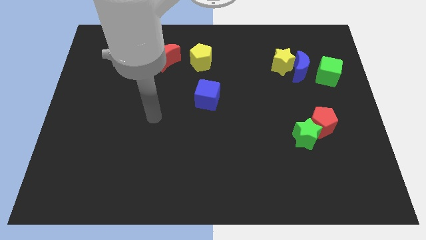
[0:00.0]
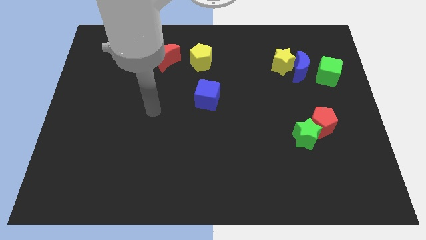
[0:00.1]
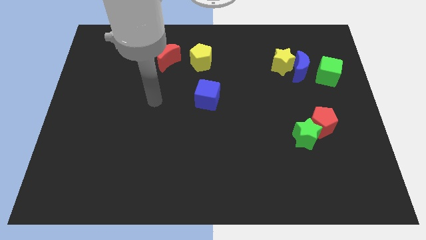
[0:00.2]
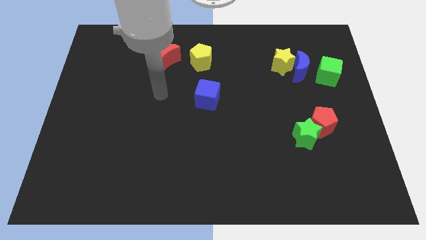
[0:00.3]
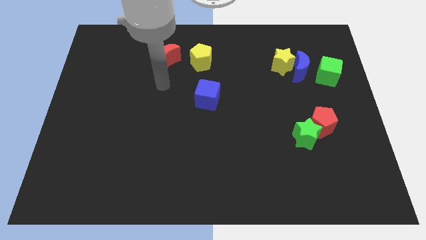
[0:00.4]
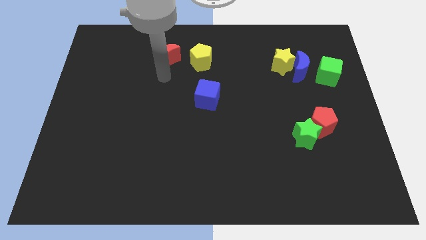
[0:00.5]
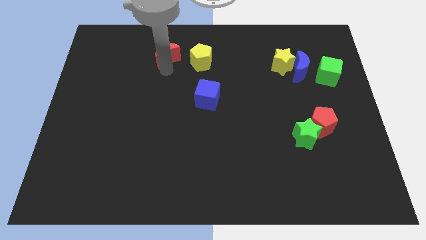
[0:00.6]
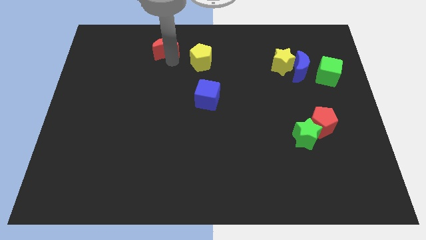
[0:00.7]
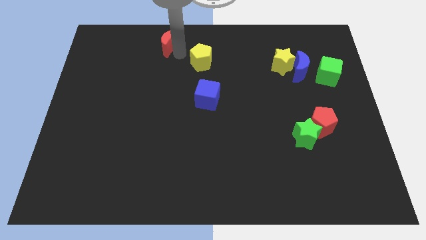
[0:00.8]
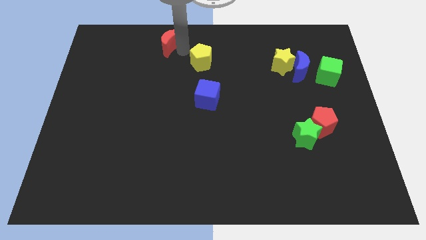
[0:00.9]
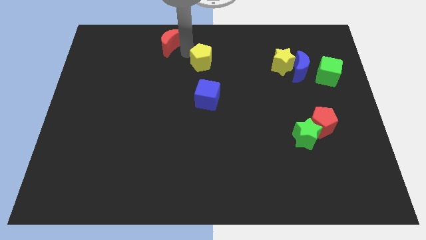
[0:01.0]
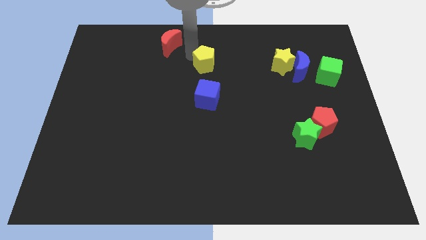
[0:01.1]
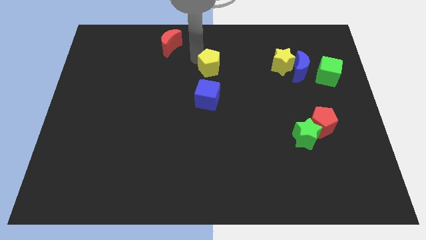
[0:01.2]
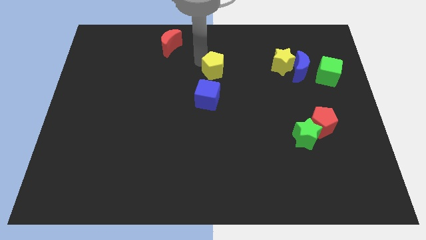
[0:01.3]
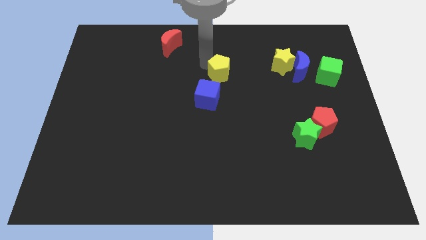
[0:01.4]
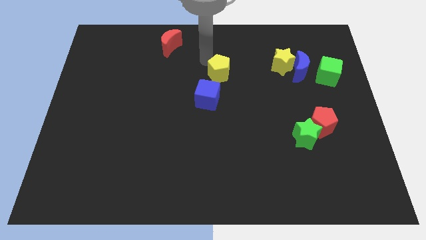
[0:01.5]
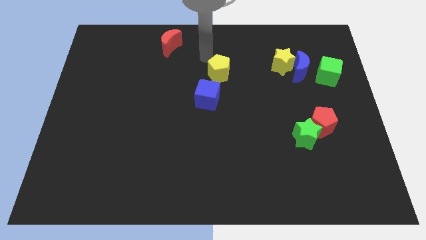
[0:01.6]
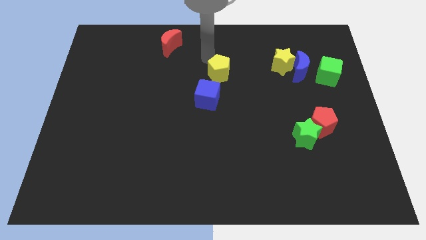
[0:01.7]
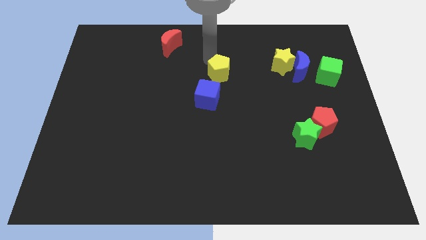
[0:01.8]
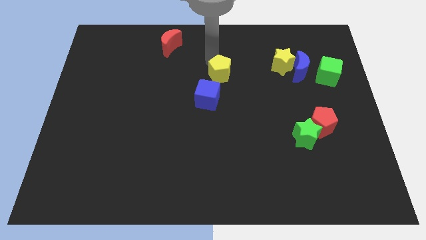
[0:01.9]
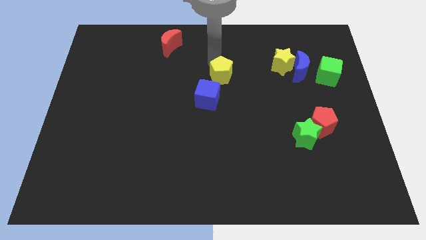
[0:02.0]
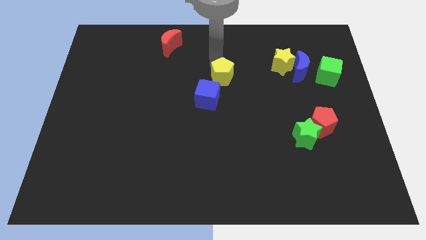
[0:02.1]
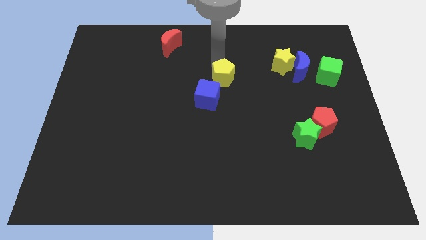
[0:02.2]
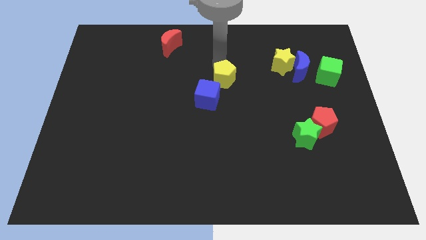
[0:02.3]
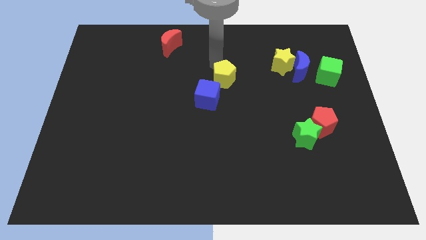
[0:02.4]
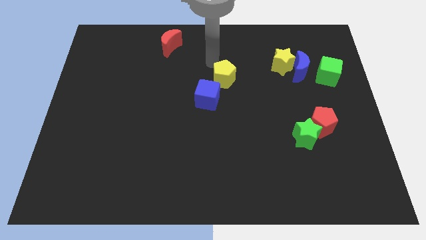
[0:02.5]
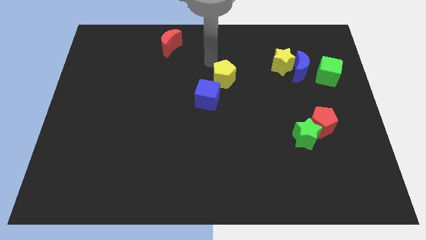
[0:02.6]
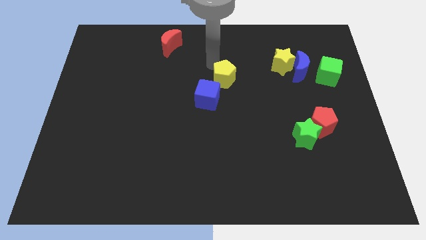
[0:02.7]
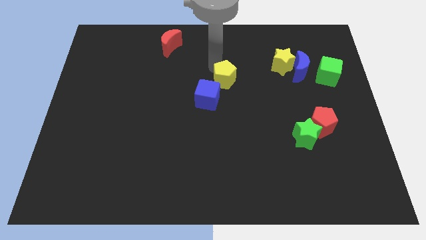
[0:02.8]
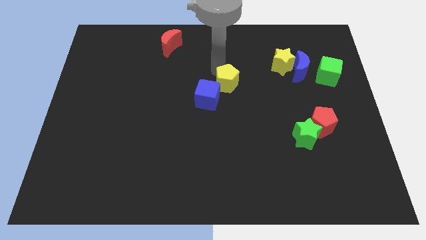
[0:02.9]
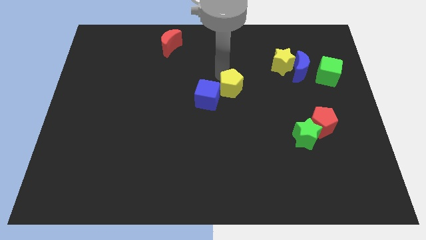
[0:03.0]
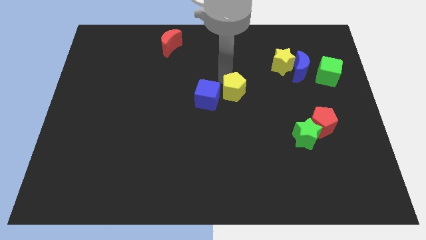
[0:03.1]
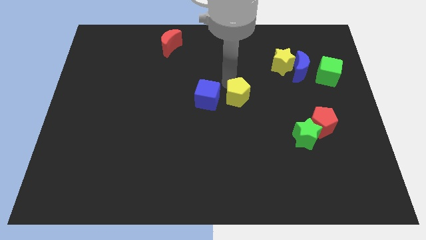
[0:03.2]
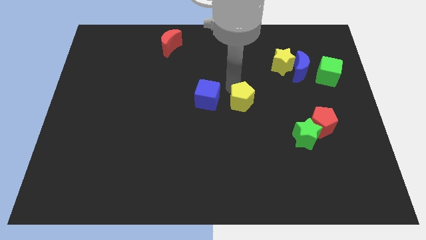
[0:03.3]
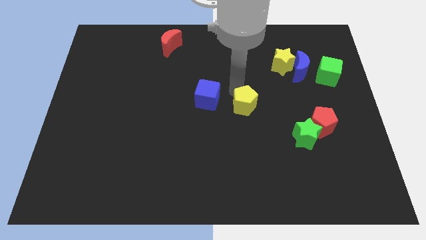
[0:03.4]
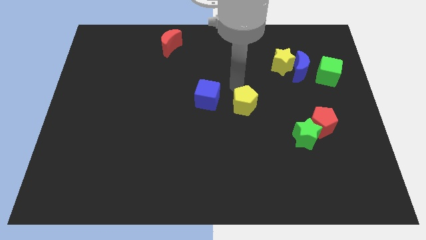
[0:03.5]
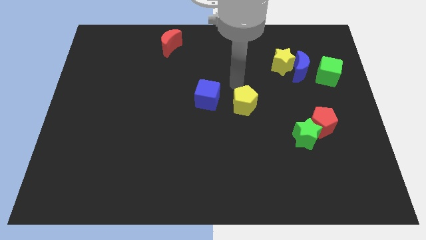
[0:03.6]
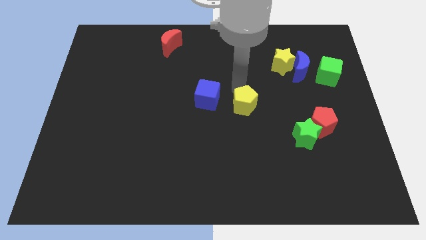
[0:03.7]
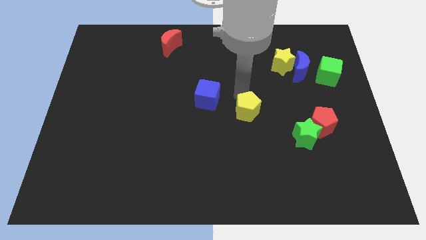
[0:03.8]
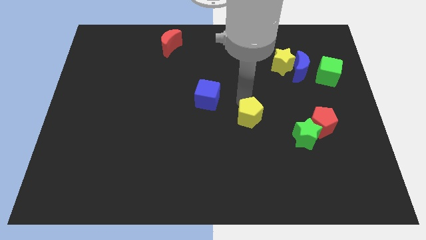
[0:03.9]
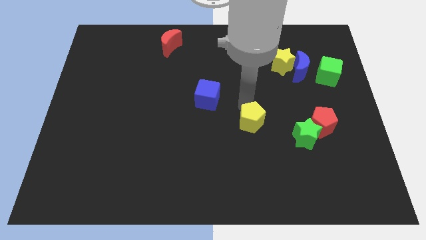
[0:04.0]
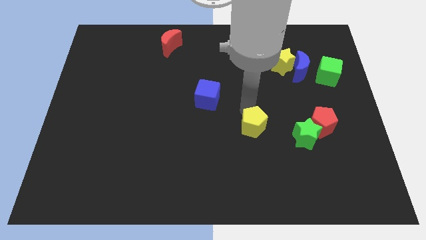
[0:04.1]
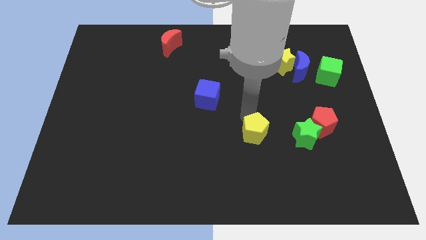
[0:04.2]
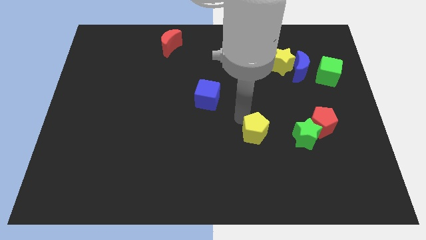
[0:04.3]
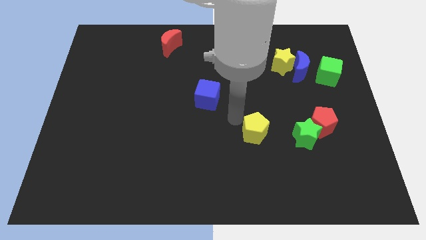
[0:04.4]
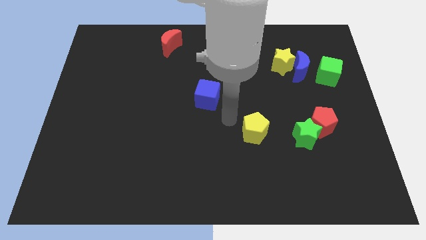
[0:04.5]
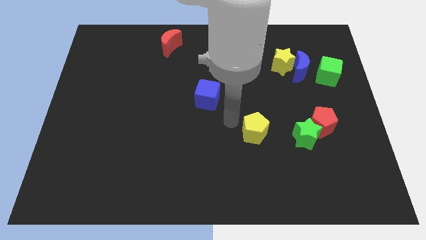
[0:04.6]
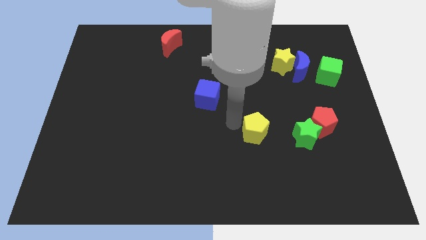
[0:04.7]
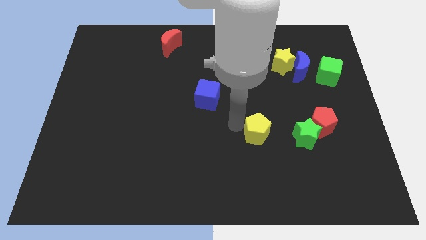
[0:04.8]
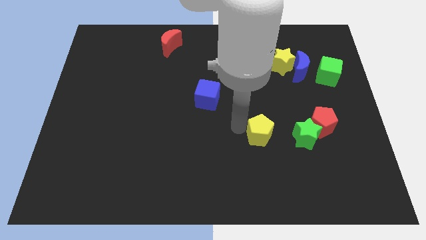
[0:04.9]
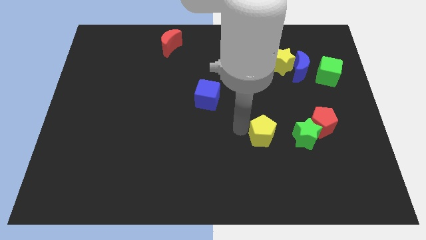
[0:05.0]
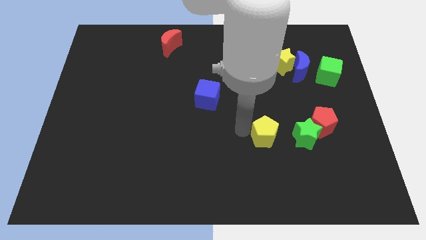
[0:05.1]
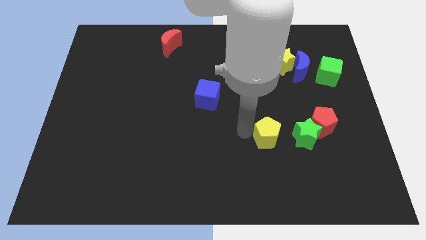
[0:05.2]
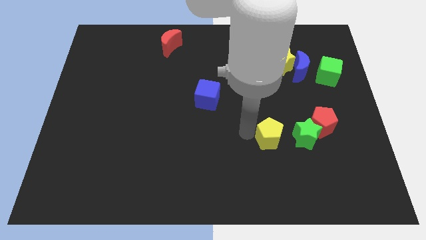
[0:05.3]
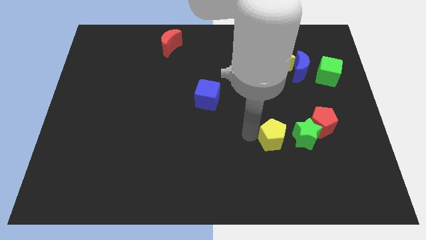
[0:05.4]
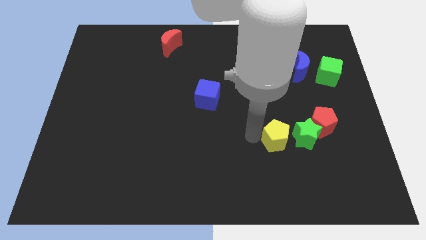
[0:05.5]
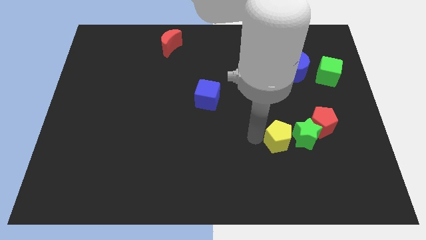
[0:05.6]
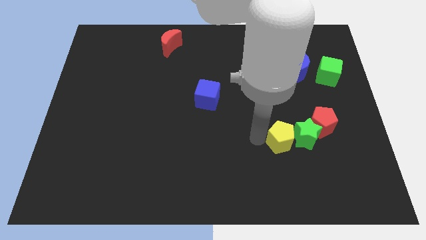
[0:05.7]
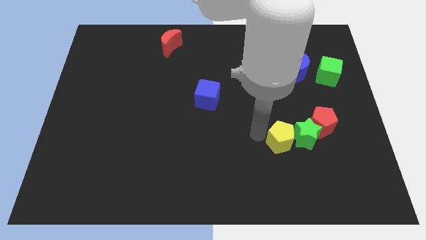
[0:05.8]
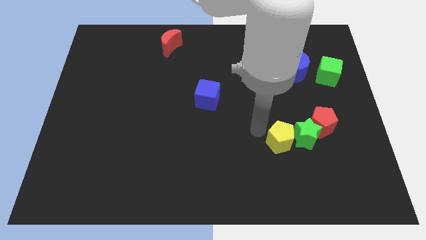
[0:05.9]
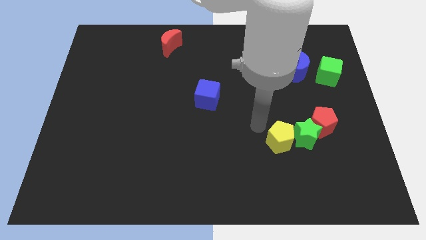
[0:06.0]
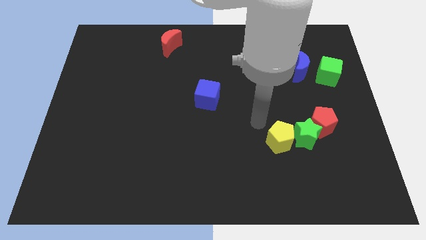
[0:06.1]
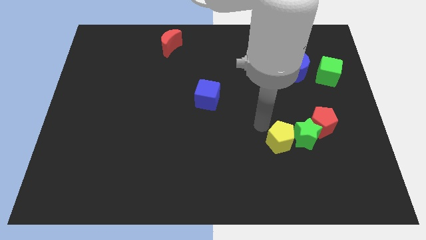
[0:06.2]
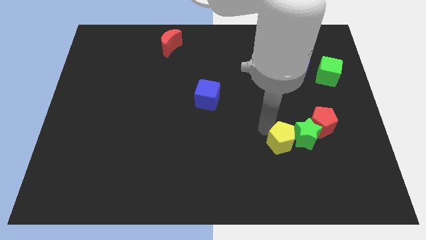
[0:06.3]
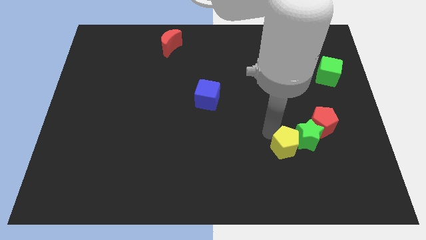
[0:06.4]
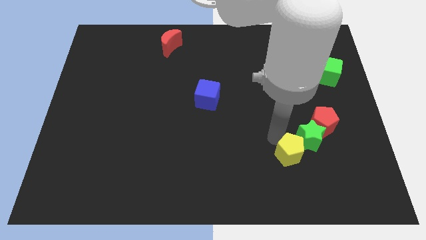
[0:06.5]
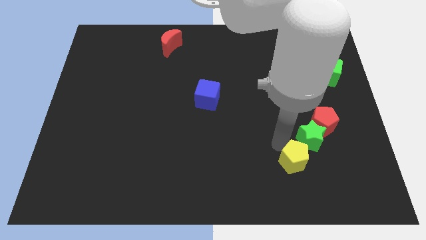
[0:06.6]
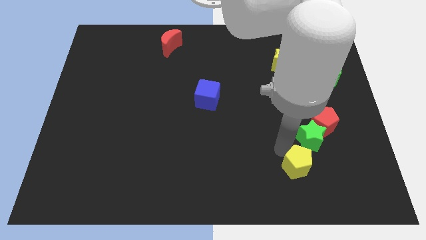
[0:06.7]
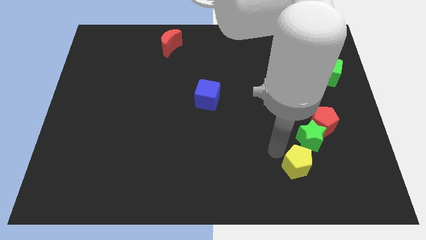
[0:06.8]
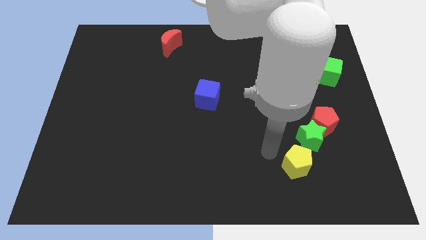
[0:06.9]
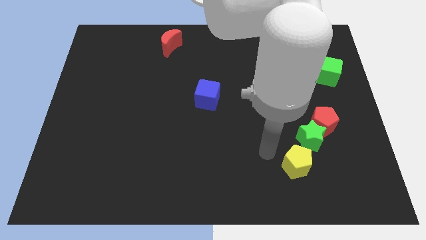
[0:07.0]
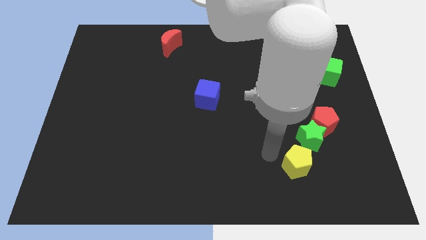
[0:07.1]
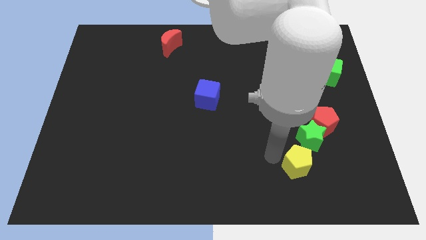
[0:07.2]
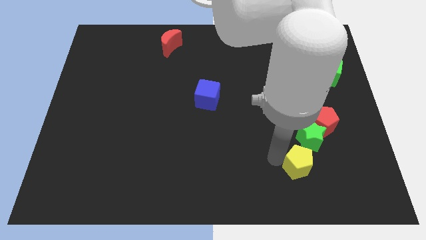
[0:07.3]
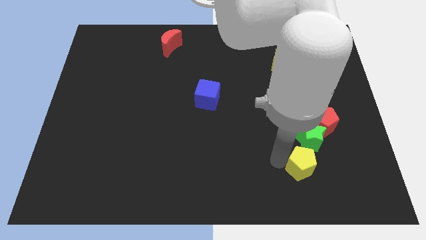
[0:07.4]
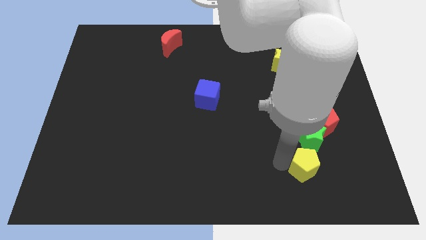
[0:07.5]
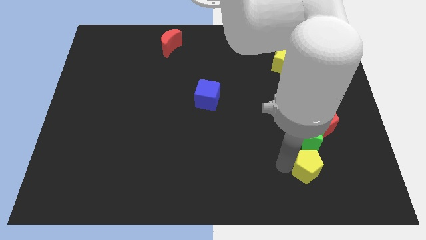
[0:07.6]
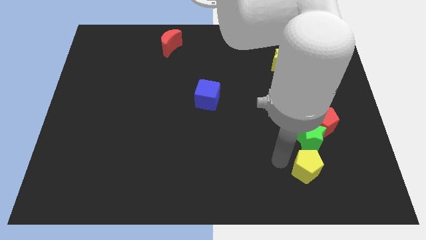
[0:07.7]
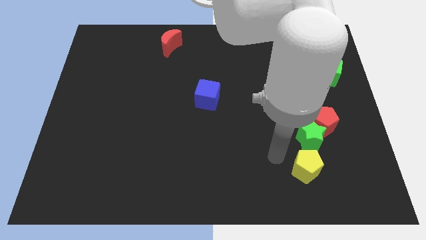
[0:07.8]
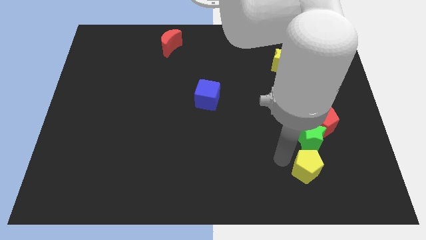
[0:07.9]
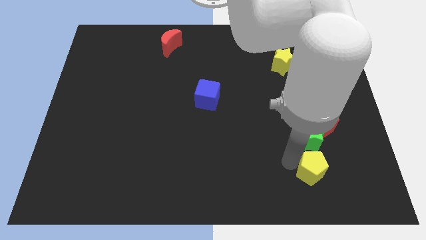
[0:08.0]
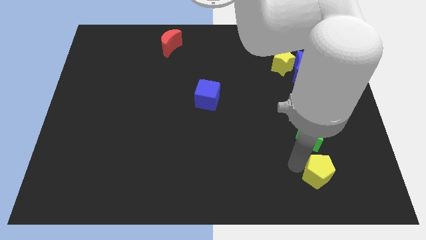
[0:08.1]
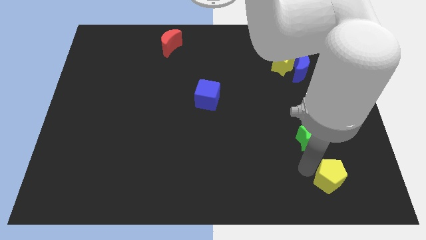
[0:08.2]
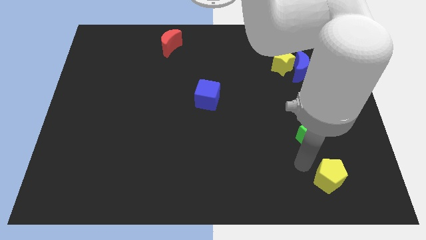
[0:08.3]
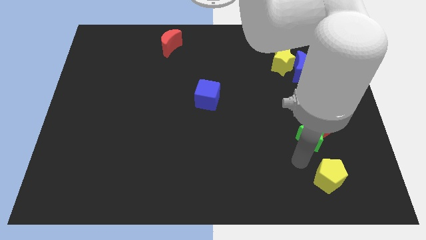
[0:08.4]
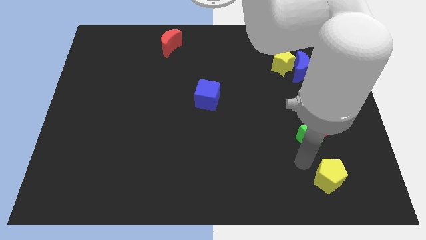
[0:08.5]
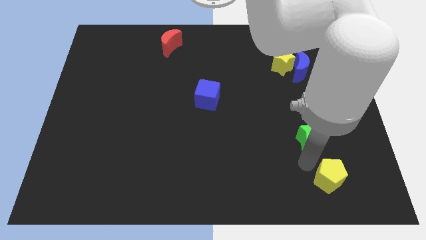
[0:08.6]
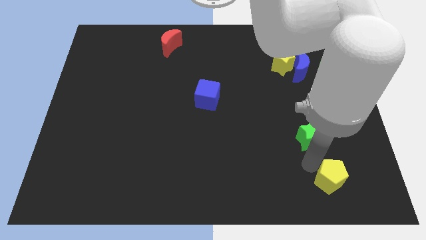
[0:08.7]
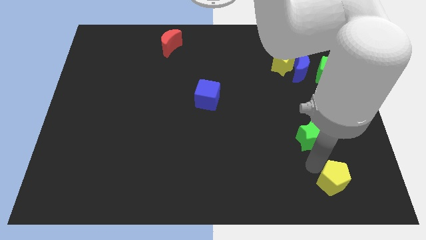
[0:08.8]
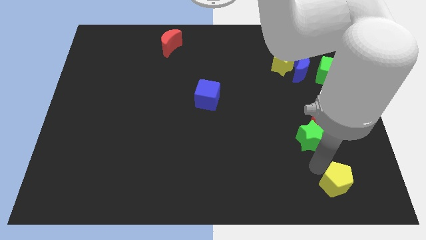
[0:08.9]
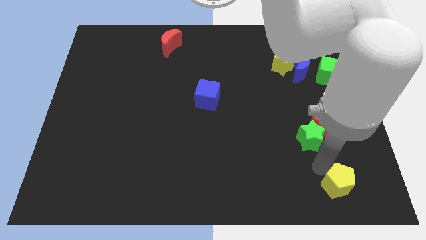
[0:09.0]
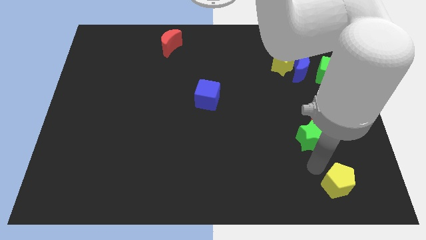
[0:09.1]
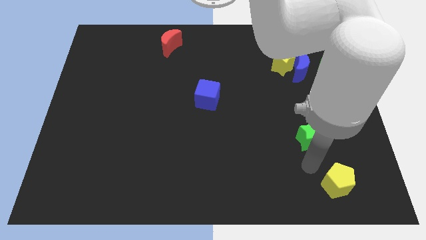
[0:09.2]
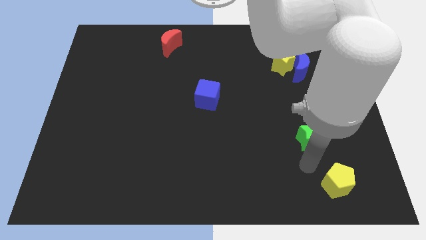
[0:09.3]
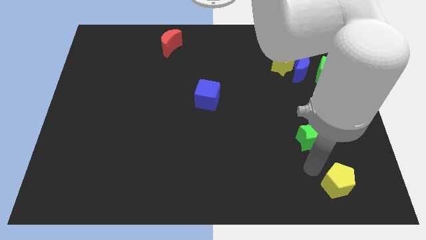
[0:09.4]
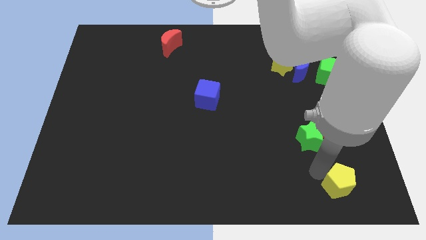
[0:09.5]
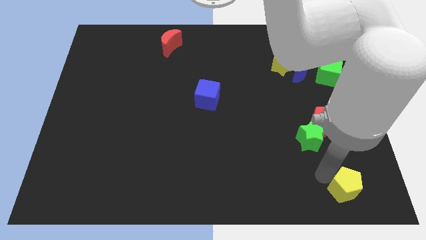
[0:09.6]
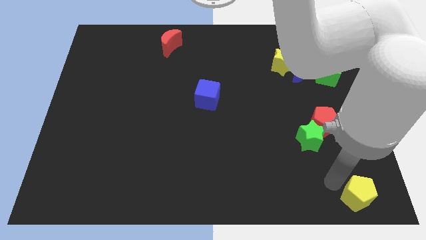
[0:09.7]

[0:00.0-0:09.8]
slide the yellow pentagon to the bottom right
